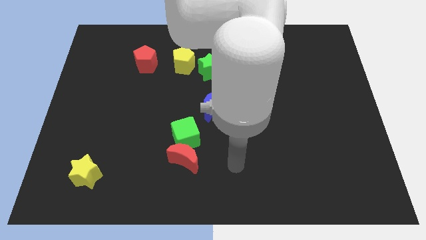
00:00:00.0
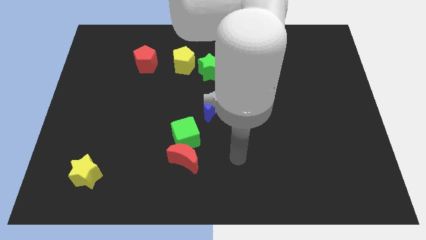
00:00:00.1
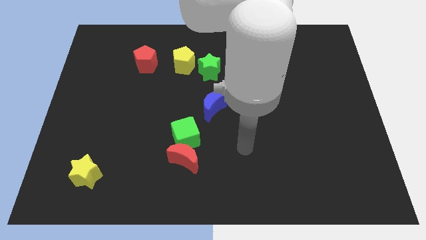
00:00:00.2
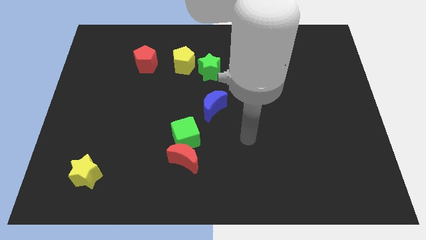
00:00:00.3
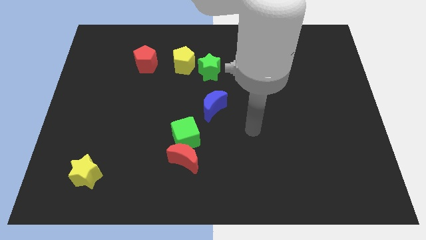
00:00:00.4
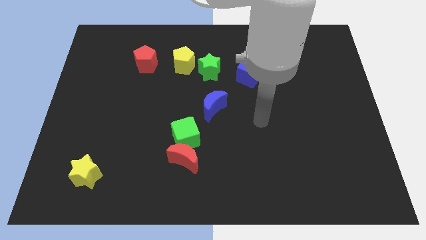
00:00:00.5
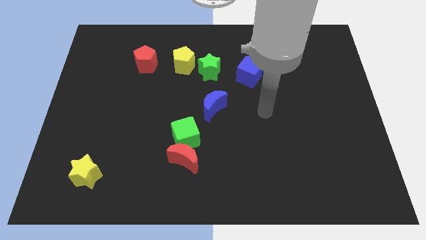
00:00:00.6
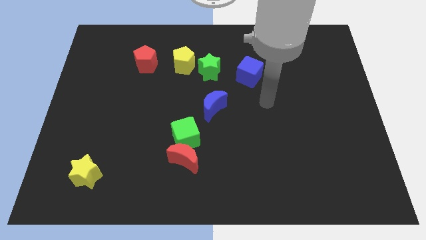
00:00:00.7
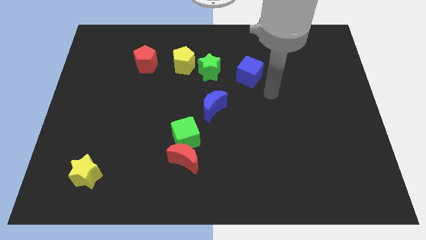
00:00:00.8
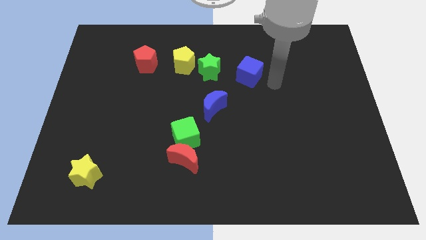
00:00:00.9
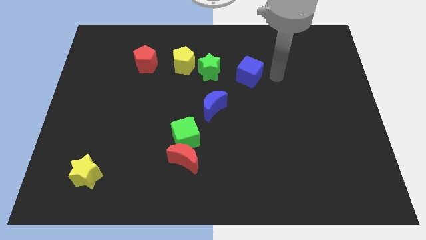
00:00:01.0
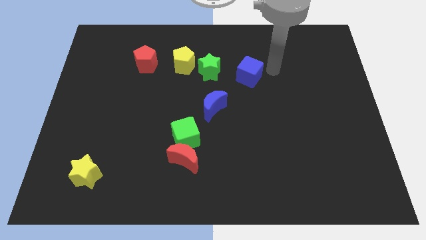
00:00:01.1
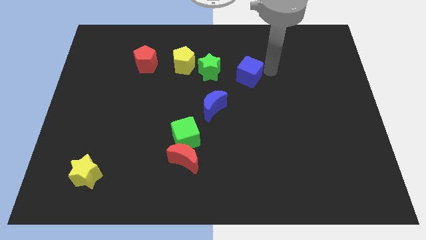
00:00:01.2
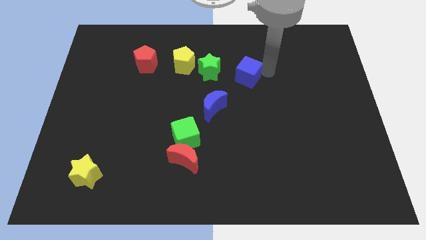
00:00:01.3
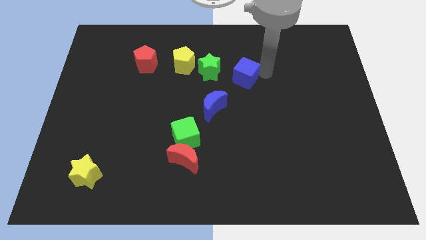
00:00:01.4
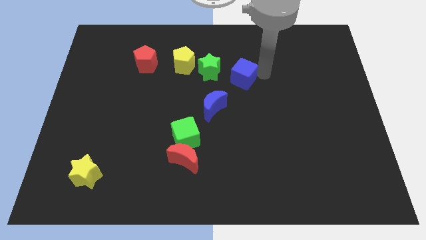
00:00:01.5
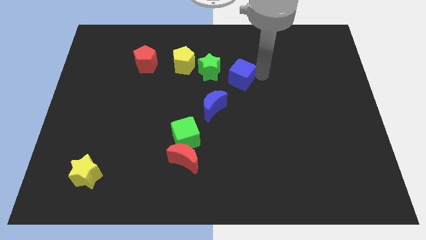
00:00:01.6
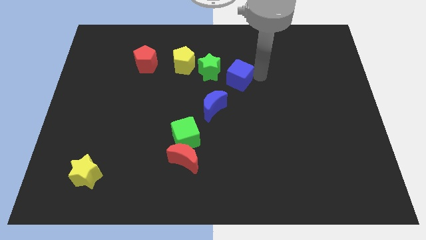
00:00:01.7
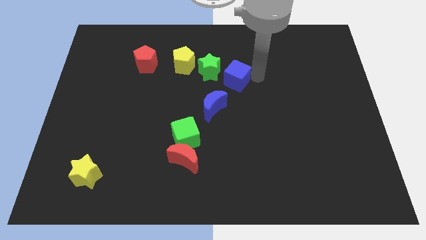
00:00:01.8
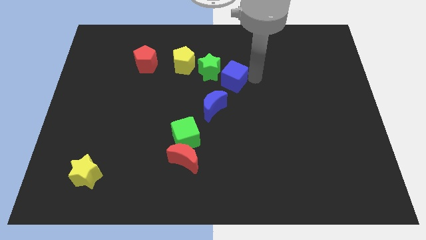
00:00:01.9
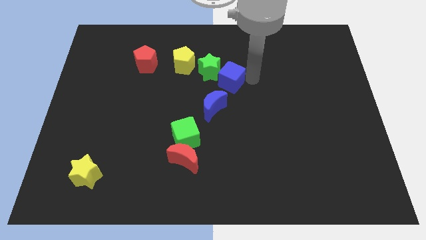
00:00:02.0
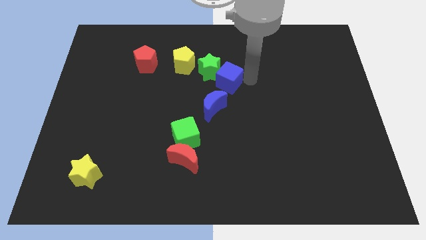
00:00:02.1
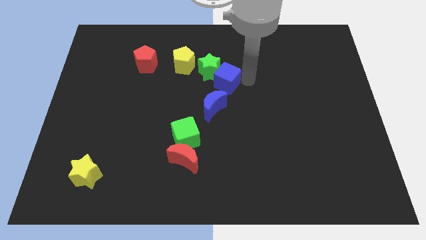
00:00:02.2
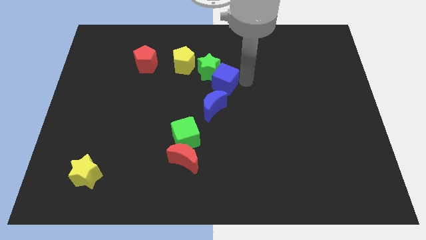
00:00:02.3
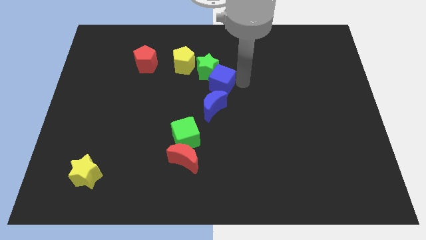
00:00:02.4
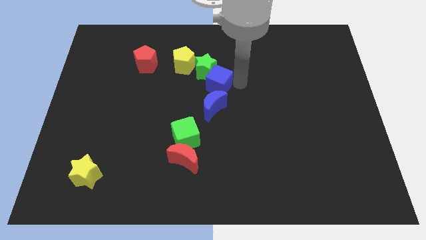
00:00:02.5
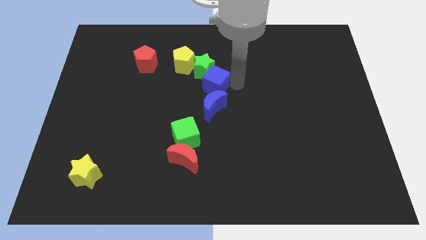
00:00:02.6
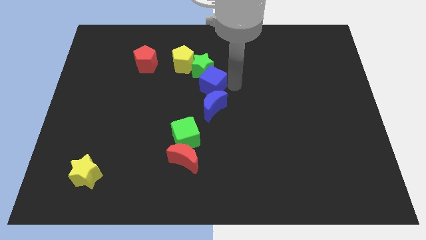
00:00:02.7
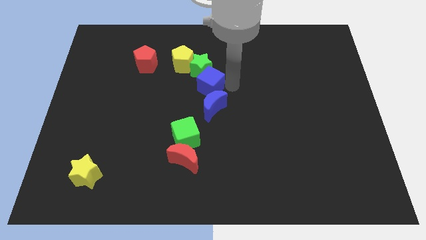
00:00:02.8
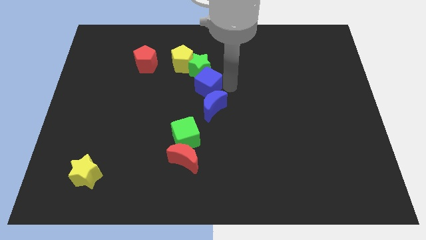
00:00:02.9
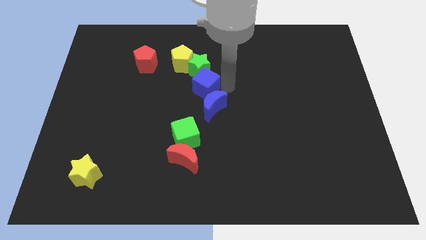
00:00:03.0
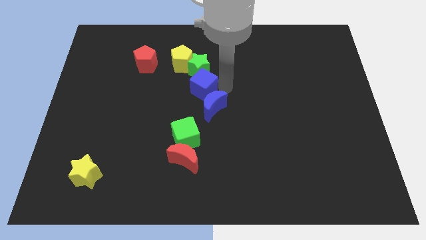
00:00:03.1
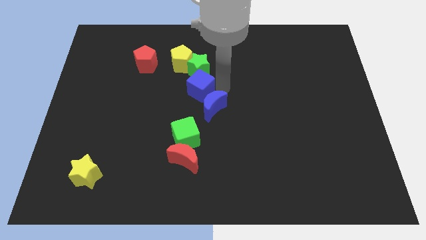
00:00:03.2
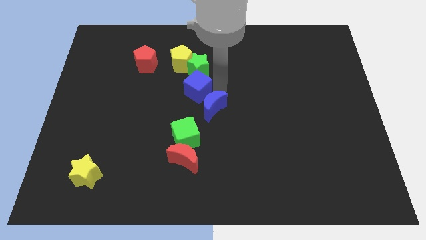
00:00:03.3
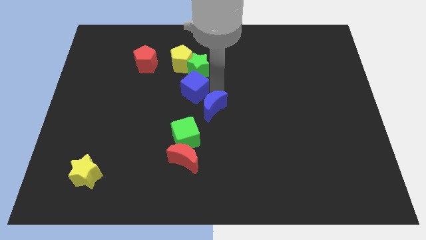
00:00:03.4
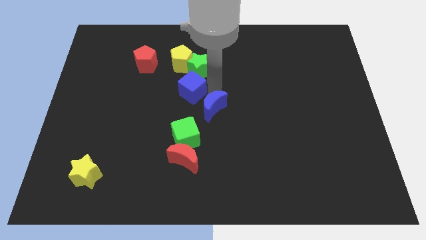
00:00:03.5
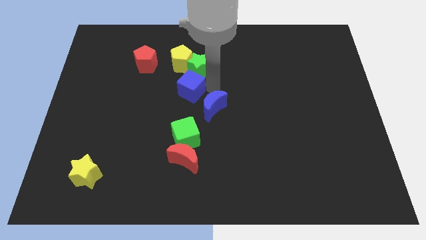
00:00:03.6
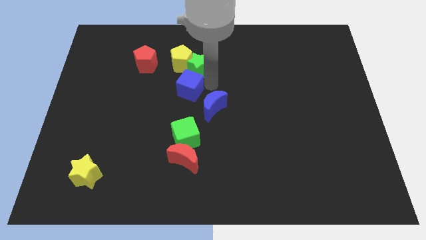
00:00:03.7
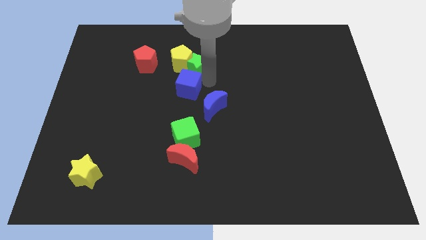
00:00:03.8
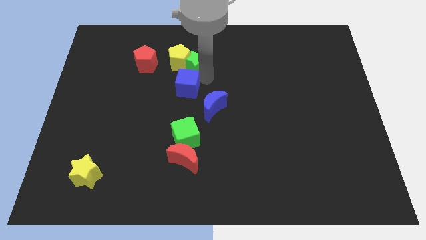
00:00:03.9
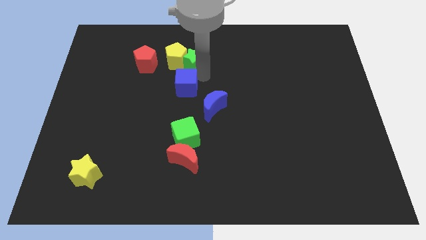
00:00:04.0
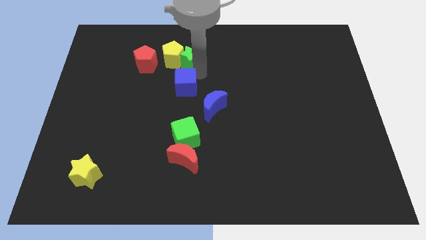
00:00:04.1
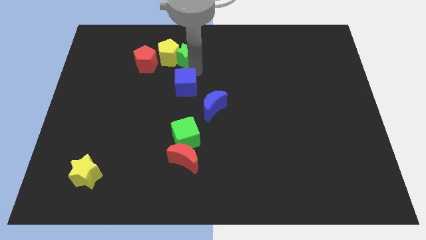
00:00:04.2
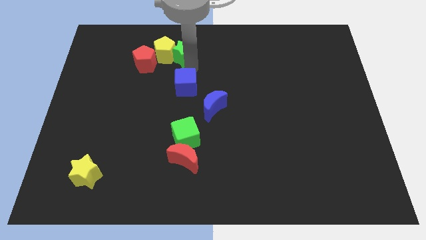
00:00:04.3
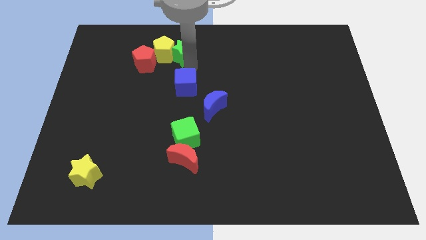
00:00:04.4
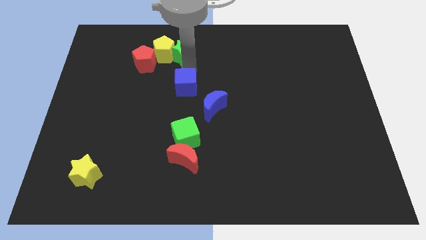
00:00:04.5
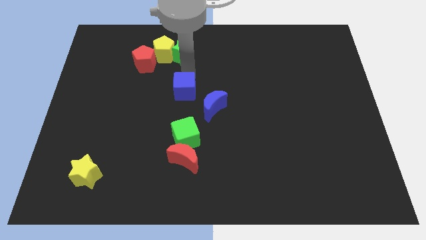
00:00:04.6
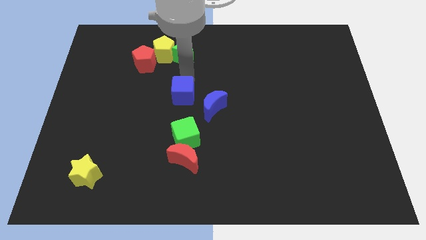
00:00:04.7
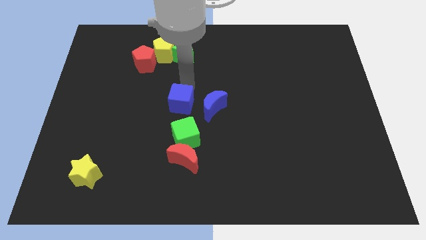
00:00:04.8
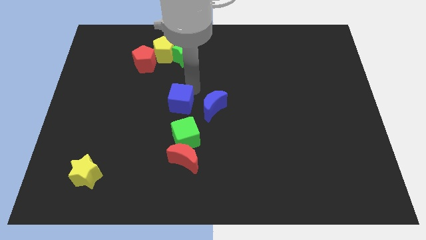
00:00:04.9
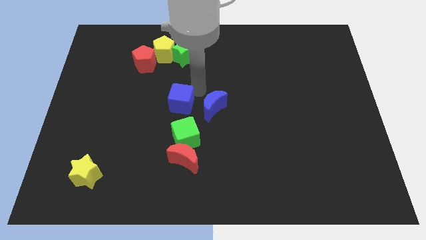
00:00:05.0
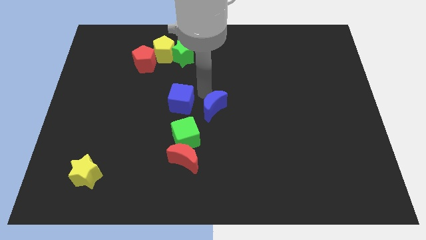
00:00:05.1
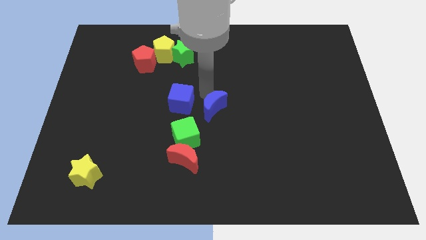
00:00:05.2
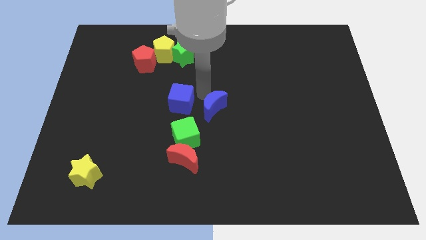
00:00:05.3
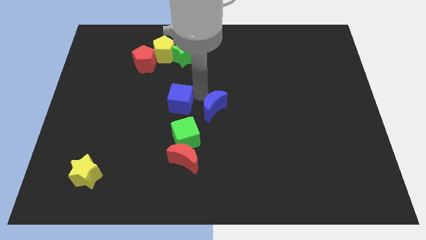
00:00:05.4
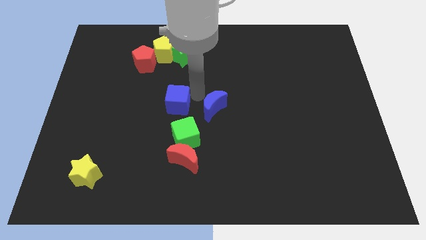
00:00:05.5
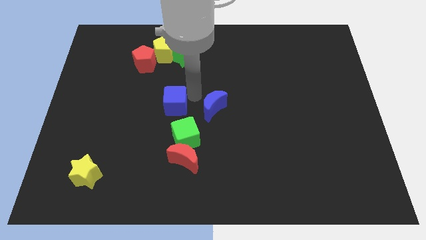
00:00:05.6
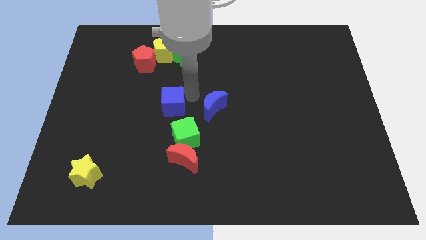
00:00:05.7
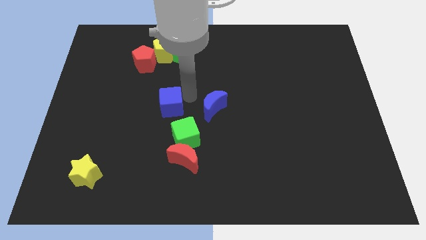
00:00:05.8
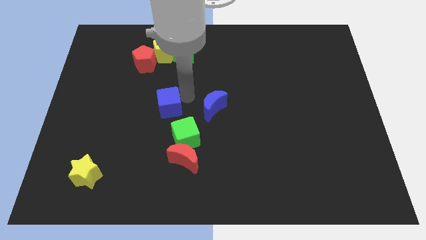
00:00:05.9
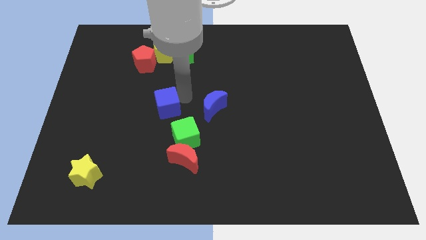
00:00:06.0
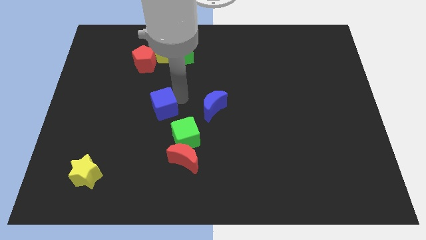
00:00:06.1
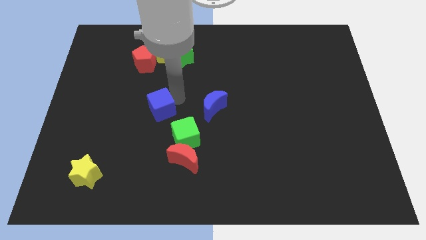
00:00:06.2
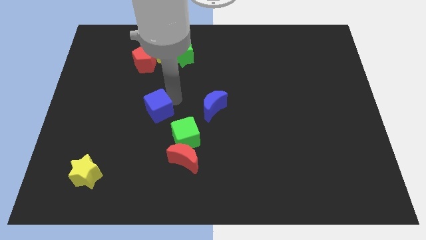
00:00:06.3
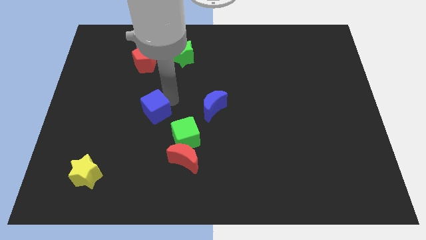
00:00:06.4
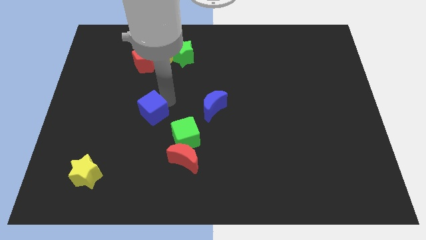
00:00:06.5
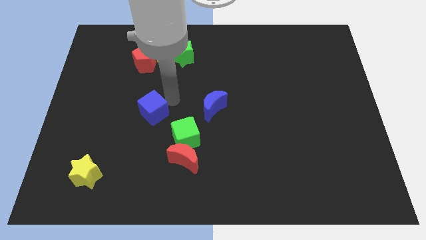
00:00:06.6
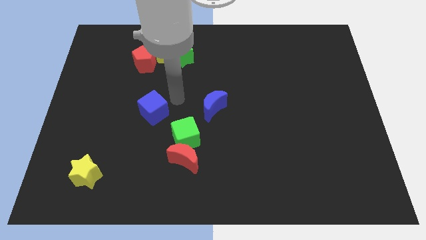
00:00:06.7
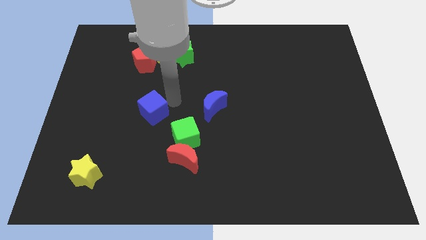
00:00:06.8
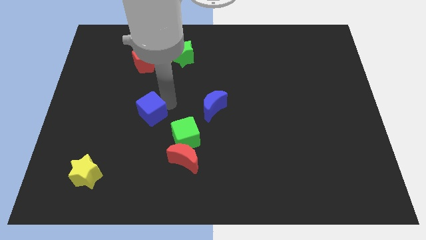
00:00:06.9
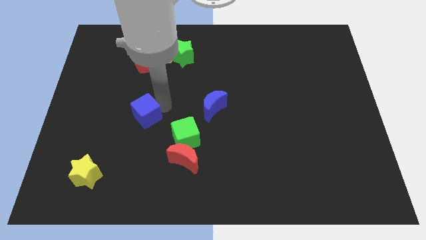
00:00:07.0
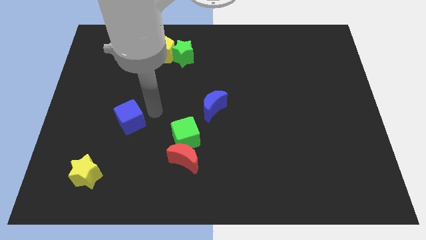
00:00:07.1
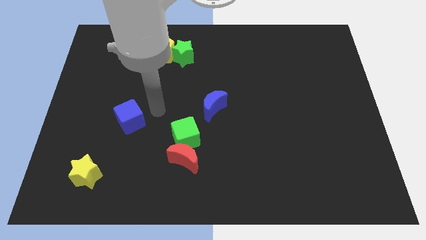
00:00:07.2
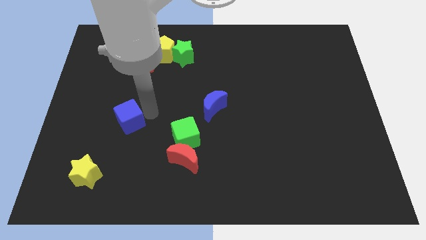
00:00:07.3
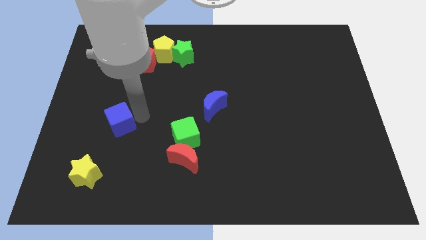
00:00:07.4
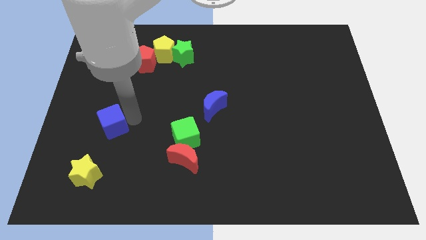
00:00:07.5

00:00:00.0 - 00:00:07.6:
push the blue cube to the top side of the yellow star
